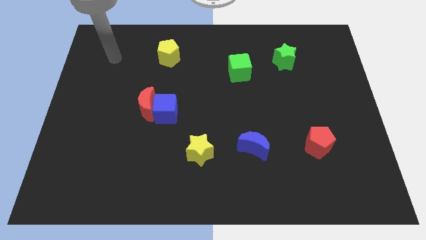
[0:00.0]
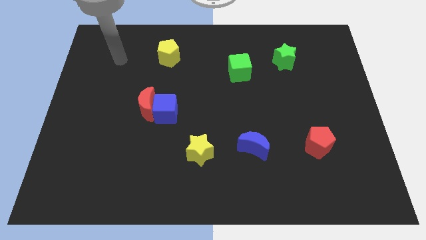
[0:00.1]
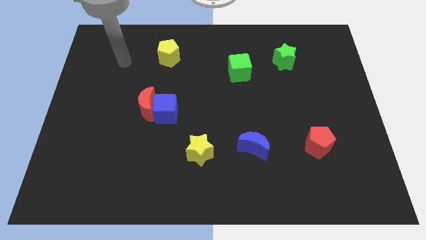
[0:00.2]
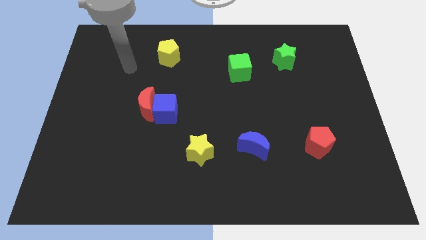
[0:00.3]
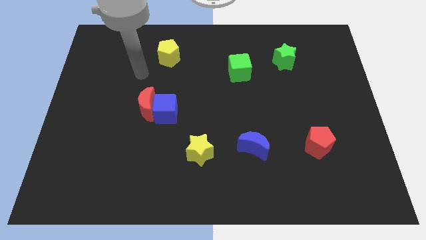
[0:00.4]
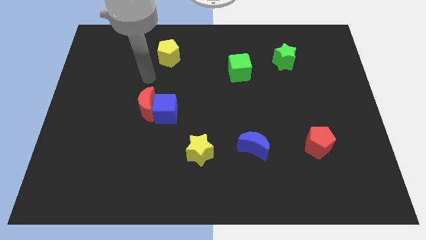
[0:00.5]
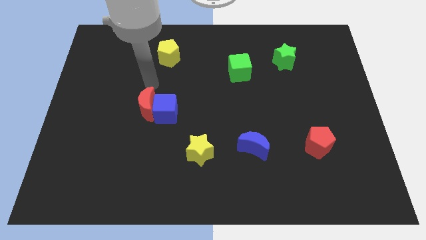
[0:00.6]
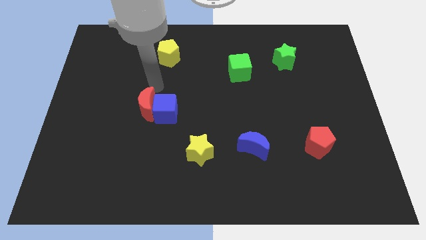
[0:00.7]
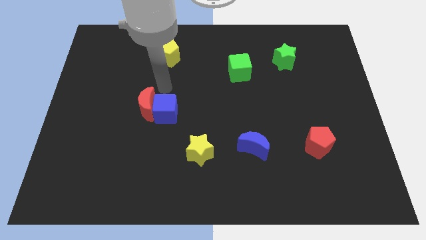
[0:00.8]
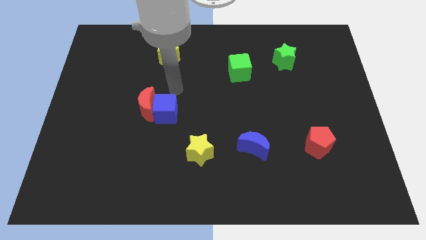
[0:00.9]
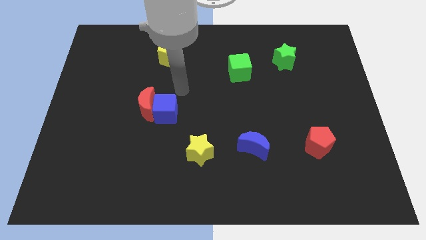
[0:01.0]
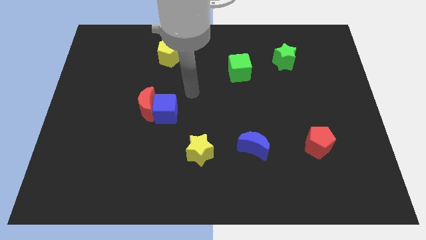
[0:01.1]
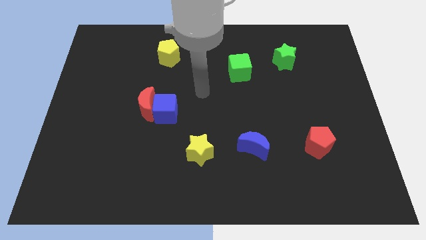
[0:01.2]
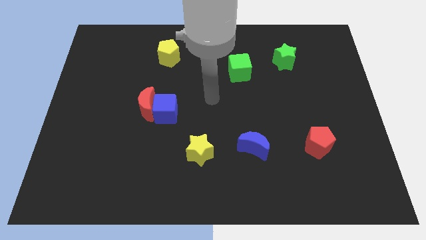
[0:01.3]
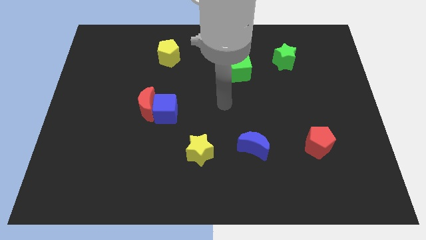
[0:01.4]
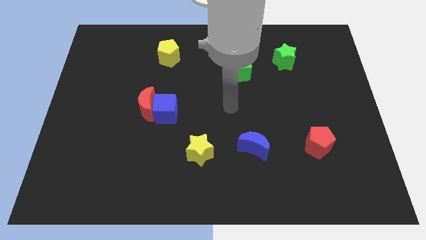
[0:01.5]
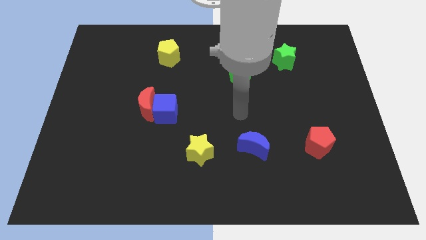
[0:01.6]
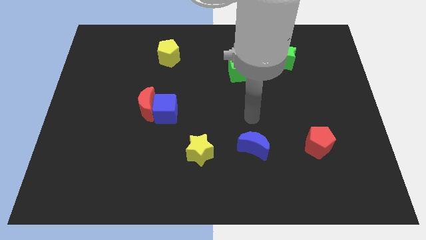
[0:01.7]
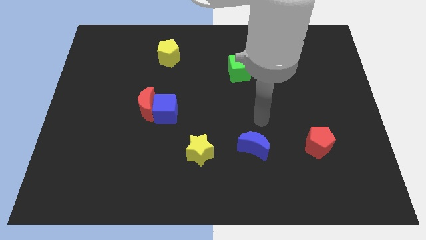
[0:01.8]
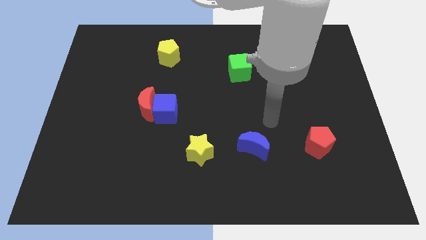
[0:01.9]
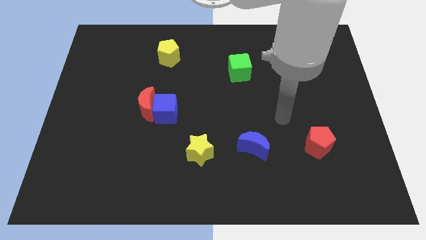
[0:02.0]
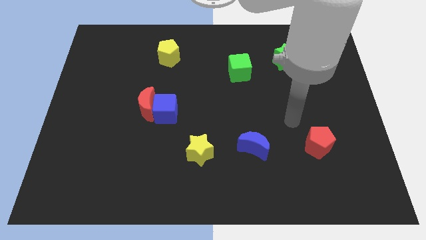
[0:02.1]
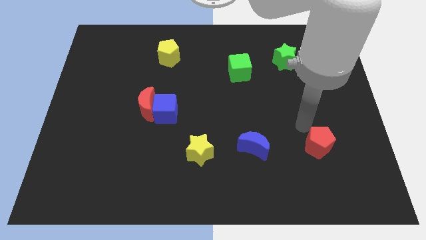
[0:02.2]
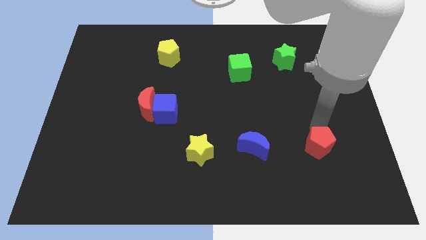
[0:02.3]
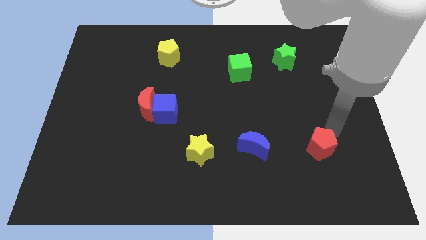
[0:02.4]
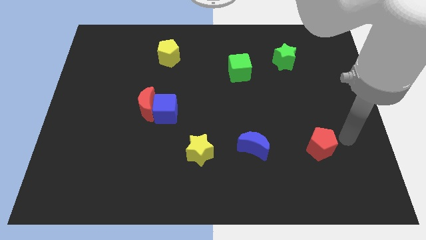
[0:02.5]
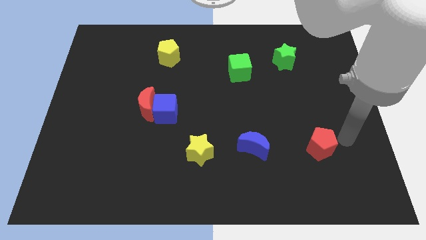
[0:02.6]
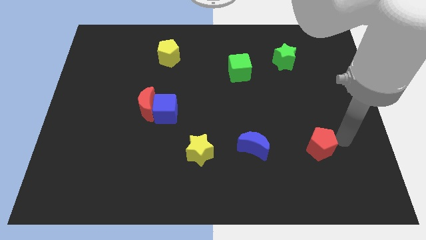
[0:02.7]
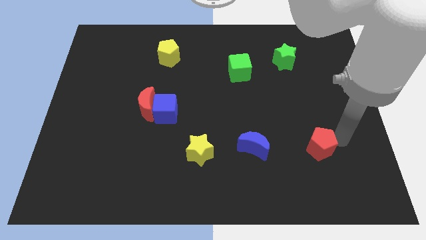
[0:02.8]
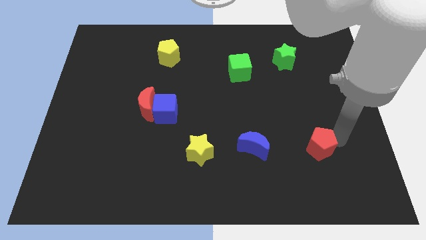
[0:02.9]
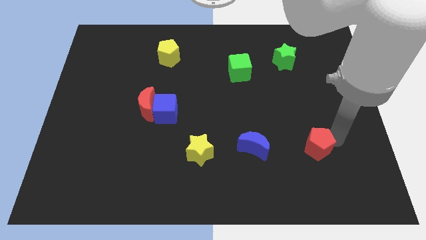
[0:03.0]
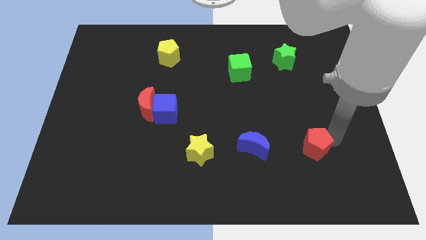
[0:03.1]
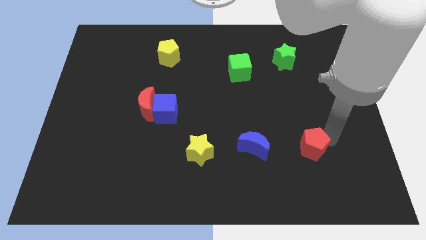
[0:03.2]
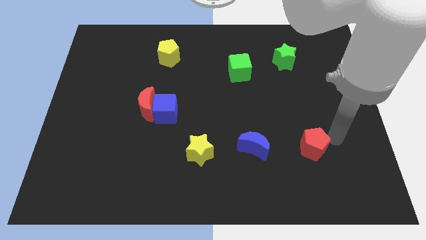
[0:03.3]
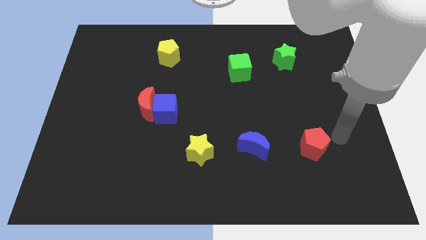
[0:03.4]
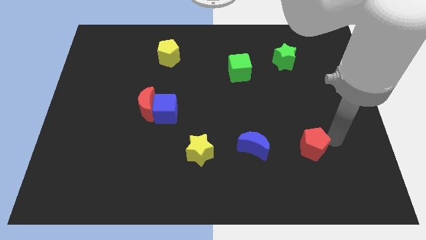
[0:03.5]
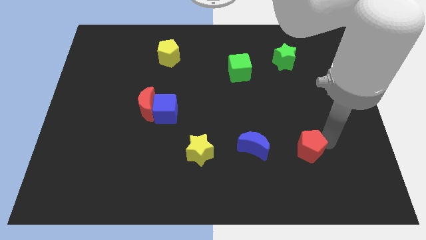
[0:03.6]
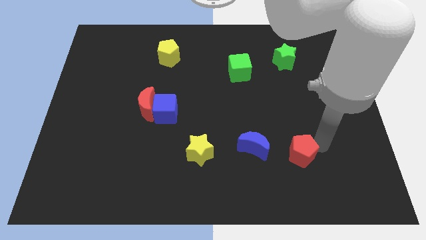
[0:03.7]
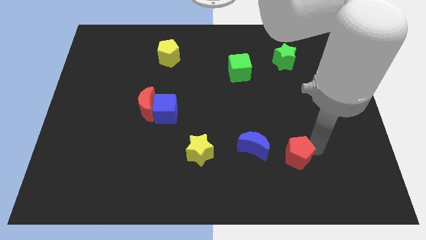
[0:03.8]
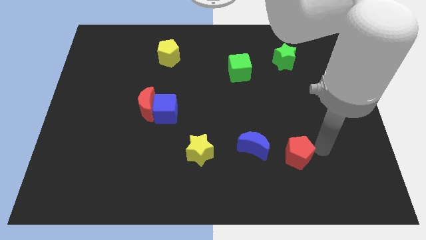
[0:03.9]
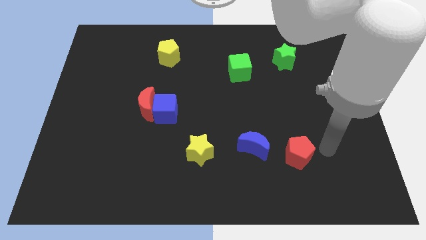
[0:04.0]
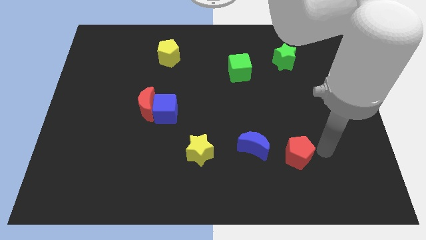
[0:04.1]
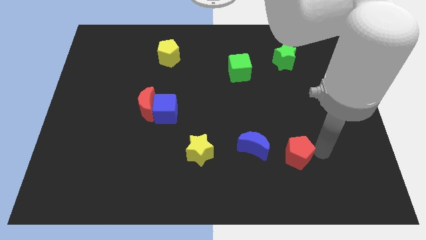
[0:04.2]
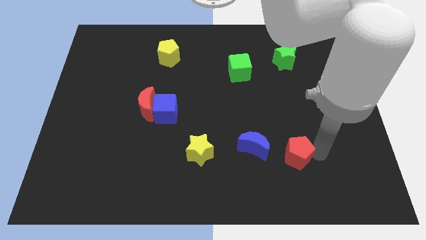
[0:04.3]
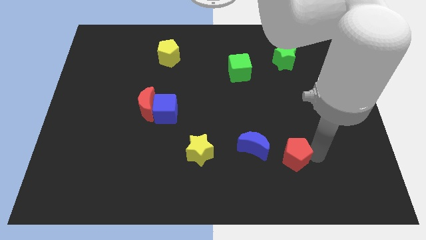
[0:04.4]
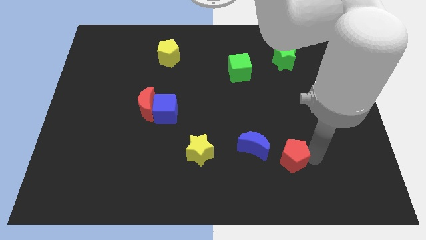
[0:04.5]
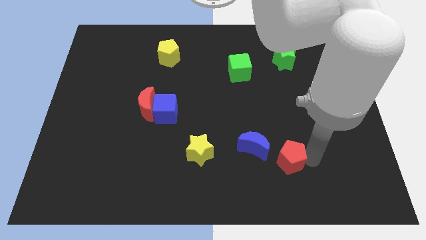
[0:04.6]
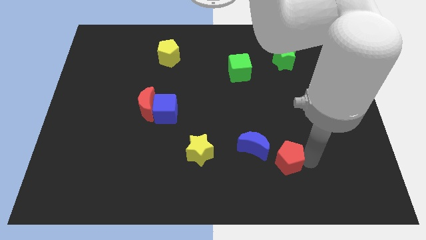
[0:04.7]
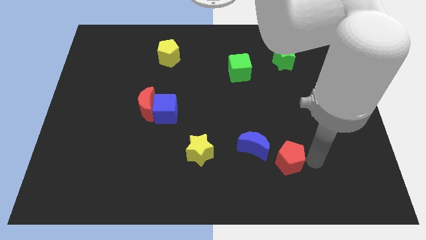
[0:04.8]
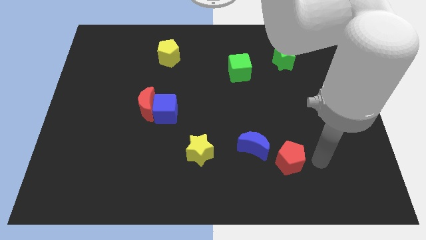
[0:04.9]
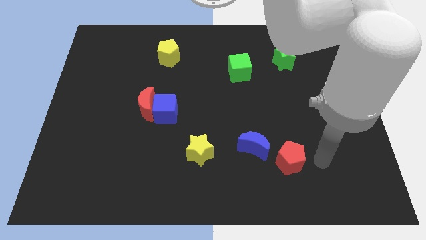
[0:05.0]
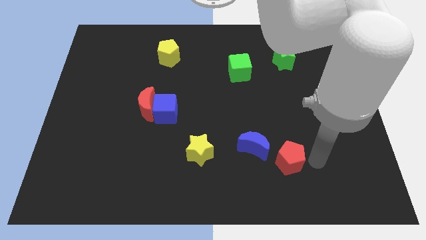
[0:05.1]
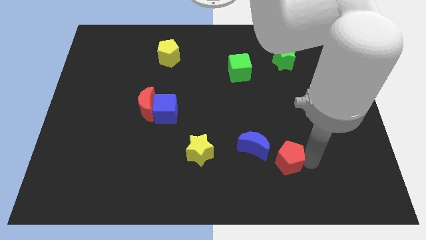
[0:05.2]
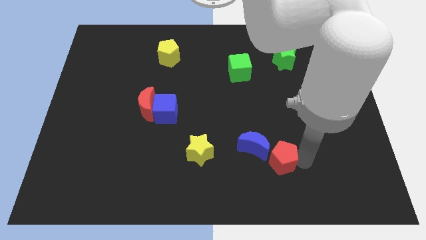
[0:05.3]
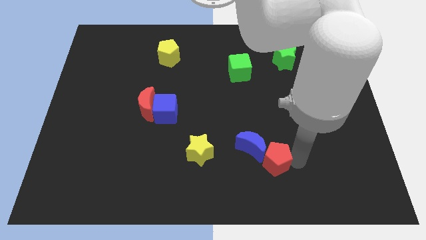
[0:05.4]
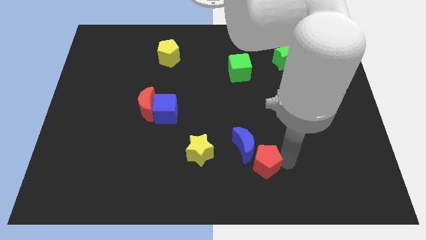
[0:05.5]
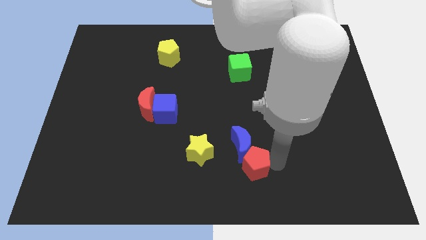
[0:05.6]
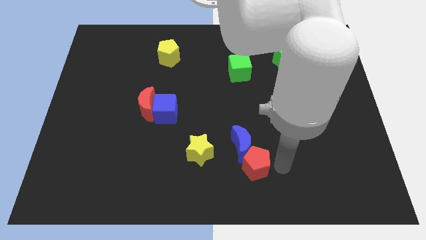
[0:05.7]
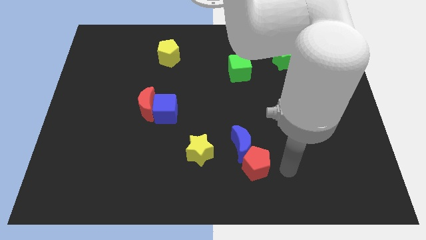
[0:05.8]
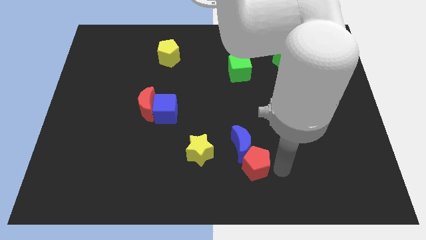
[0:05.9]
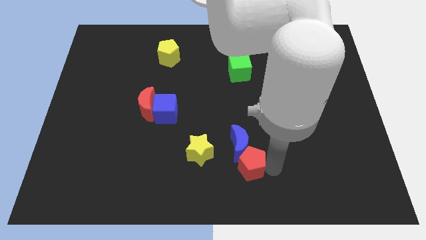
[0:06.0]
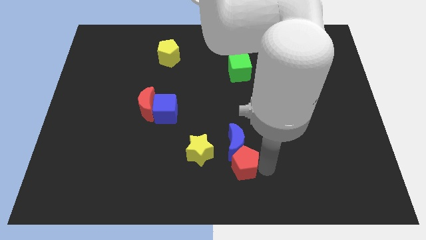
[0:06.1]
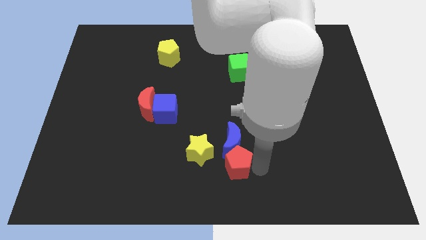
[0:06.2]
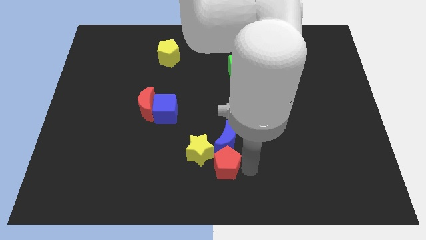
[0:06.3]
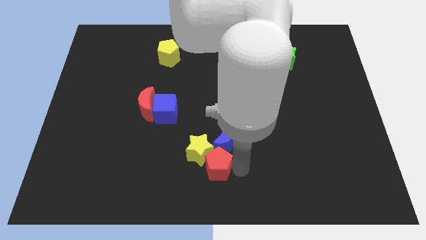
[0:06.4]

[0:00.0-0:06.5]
move the red pentagon close to the yellow star

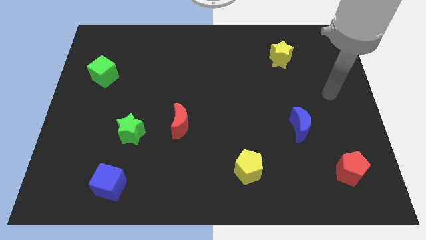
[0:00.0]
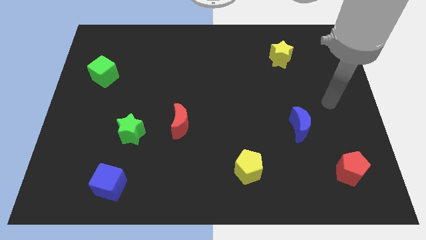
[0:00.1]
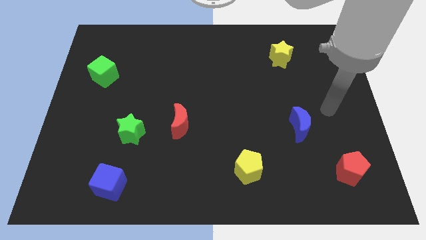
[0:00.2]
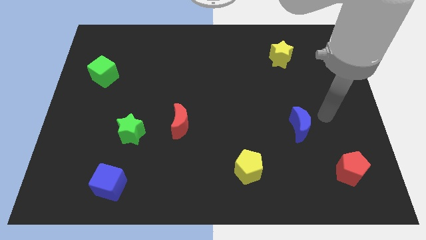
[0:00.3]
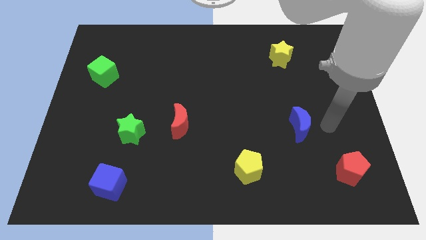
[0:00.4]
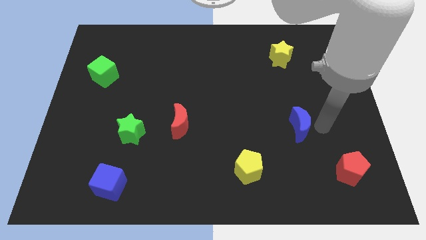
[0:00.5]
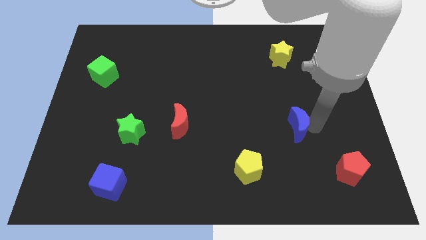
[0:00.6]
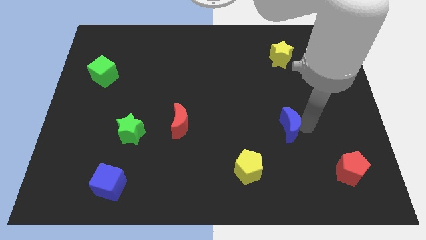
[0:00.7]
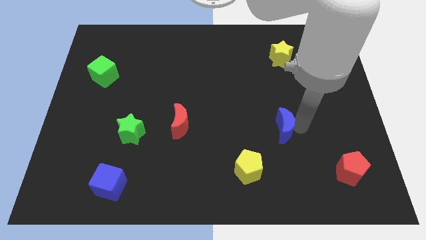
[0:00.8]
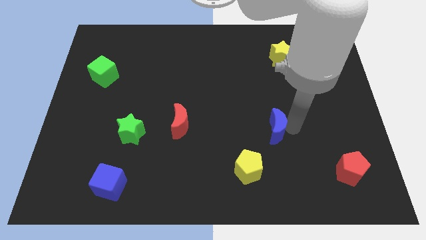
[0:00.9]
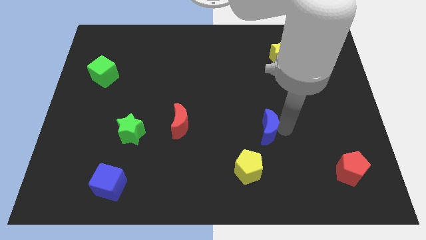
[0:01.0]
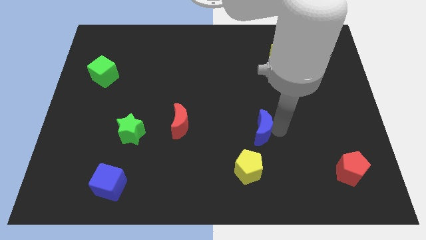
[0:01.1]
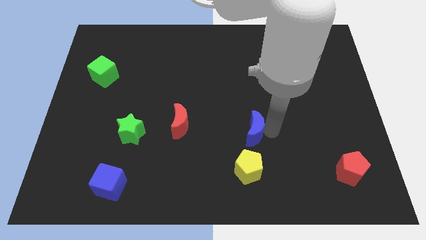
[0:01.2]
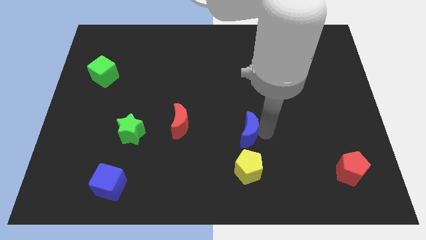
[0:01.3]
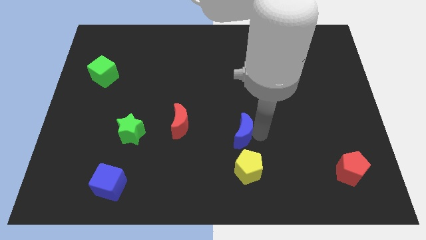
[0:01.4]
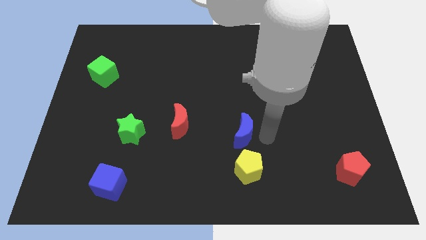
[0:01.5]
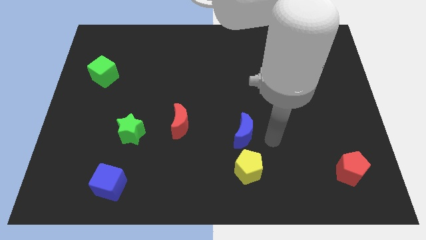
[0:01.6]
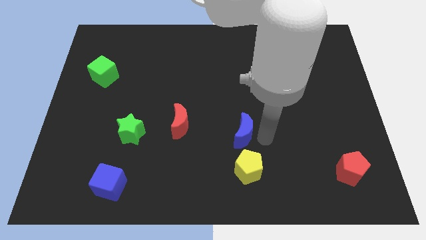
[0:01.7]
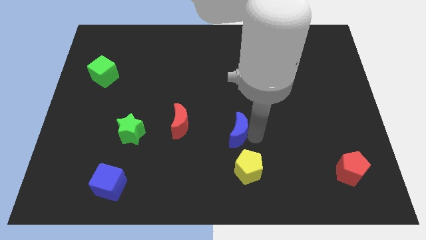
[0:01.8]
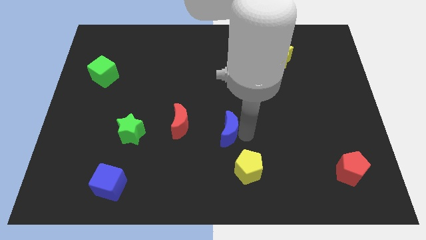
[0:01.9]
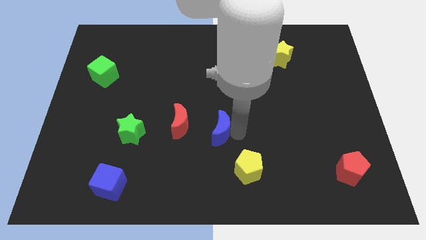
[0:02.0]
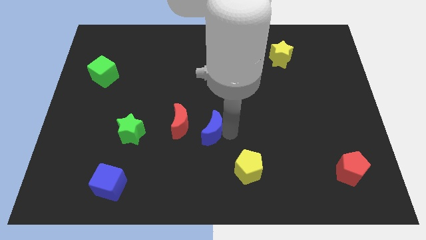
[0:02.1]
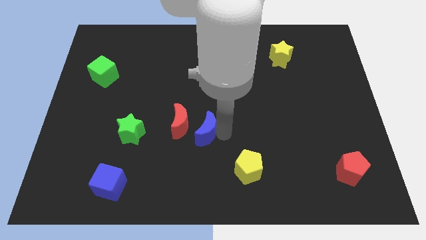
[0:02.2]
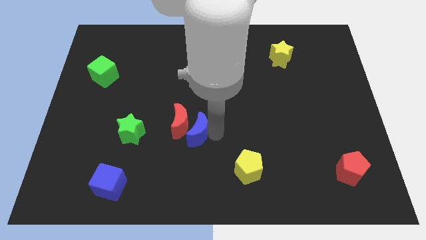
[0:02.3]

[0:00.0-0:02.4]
slide the blue moon next to the red moon
